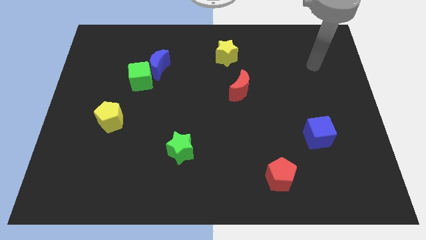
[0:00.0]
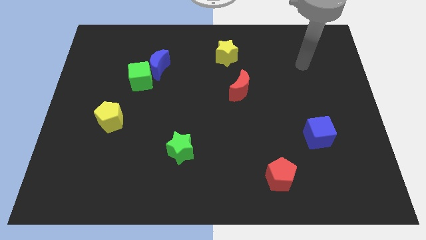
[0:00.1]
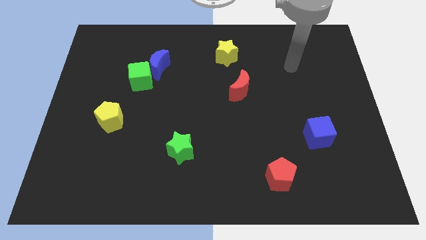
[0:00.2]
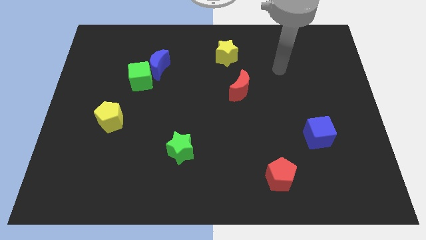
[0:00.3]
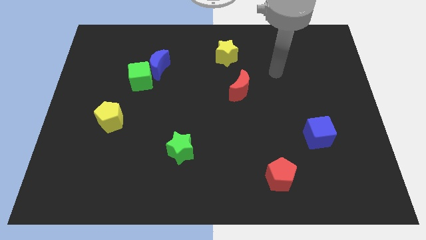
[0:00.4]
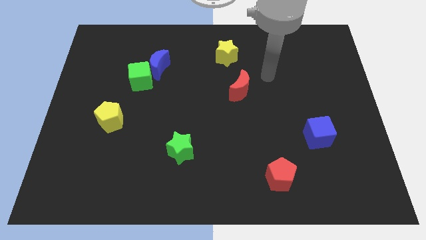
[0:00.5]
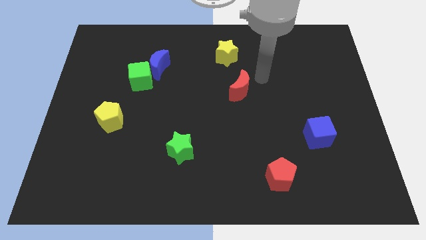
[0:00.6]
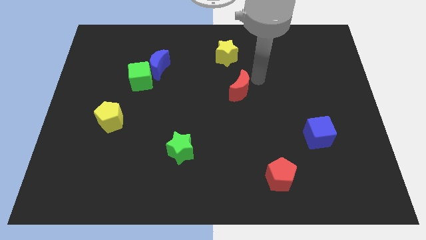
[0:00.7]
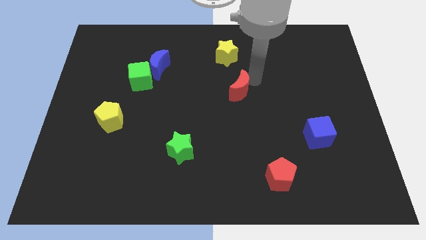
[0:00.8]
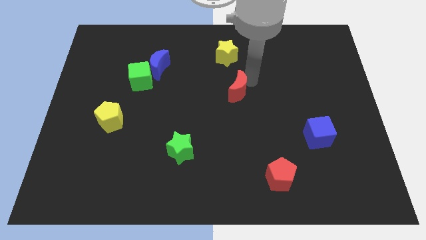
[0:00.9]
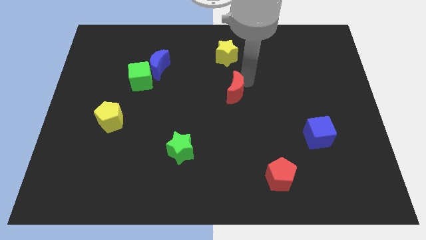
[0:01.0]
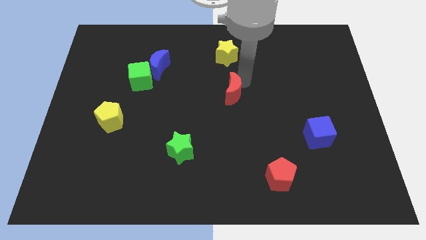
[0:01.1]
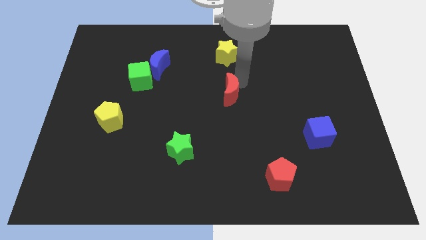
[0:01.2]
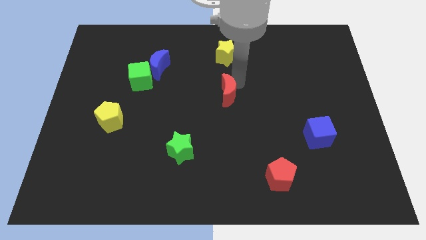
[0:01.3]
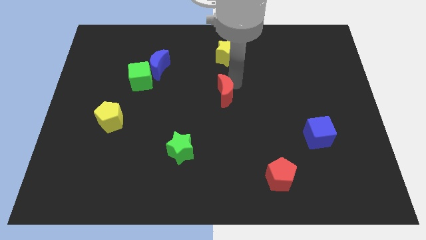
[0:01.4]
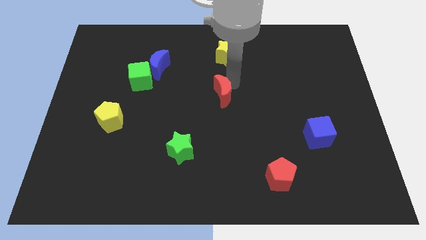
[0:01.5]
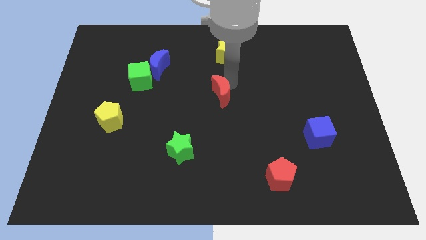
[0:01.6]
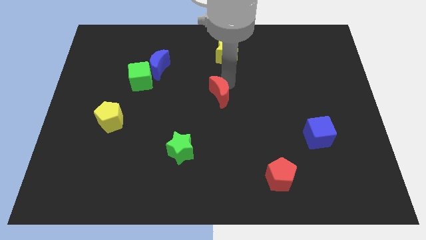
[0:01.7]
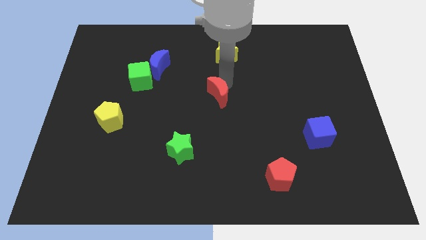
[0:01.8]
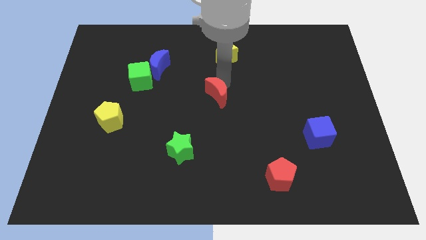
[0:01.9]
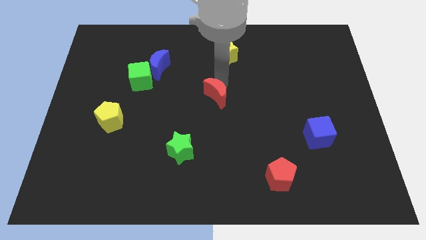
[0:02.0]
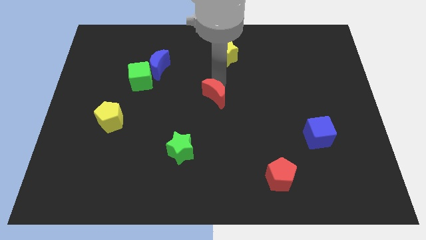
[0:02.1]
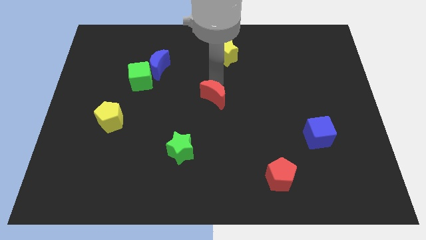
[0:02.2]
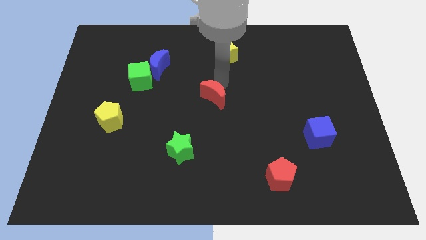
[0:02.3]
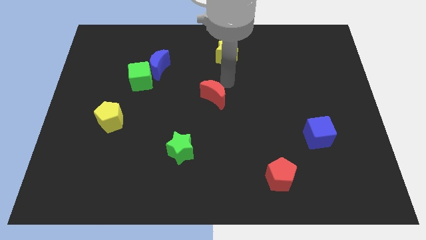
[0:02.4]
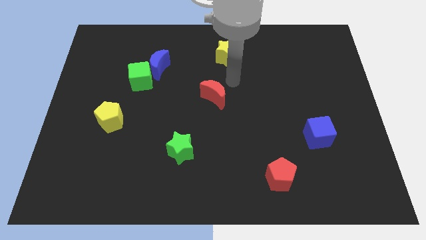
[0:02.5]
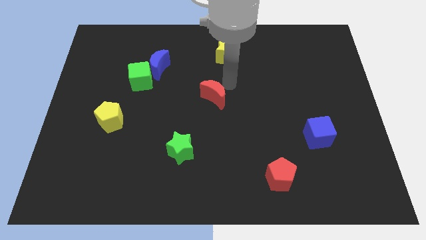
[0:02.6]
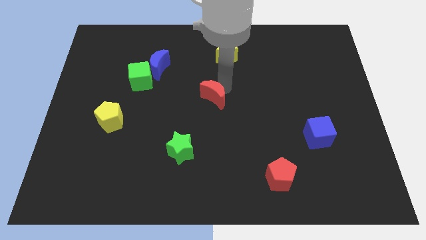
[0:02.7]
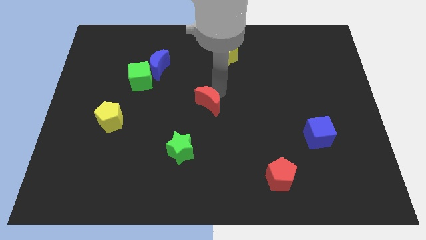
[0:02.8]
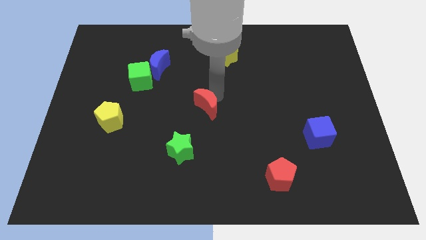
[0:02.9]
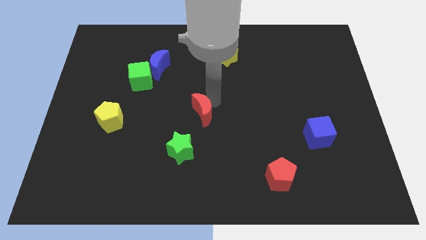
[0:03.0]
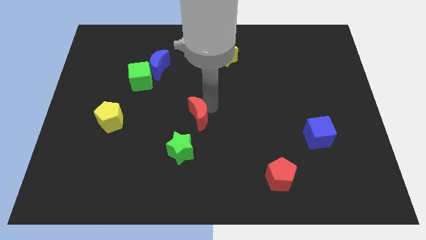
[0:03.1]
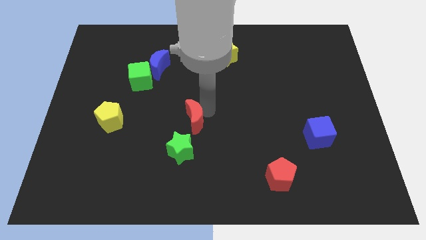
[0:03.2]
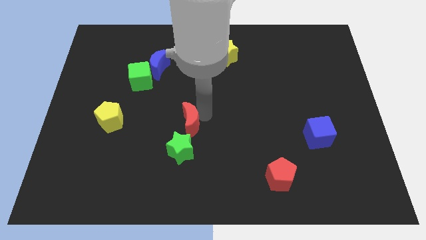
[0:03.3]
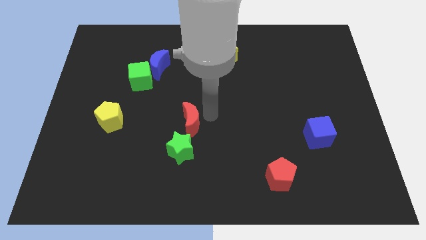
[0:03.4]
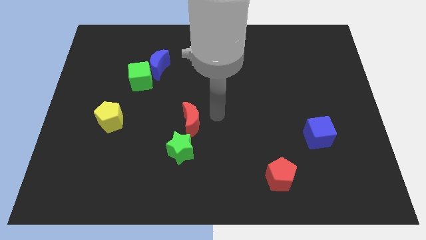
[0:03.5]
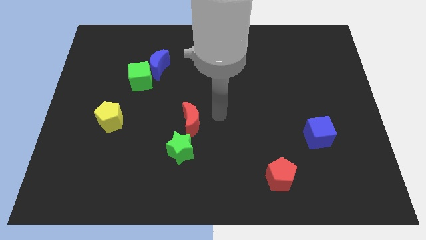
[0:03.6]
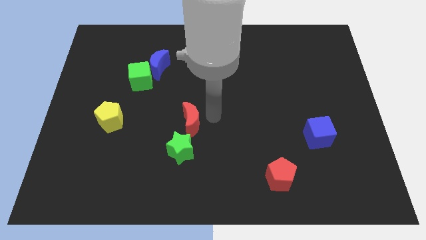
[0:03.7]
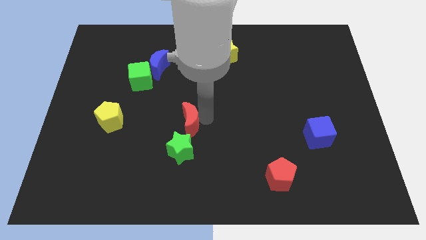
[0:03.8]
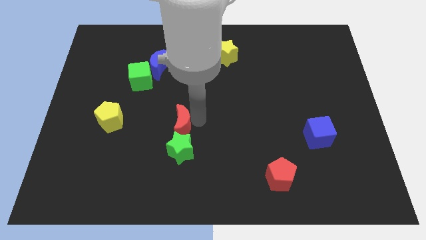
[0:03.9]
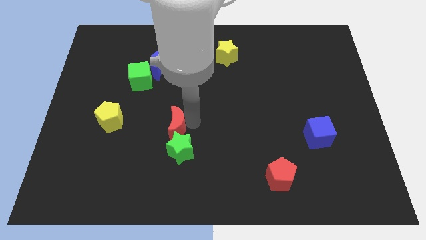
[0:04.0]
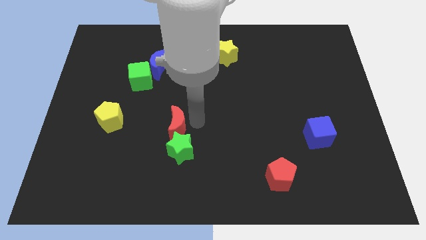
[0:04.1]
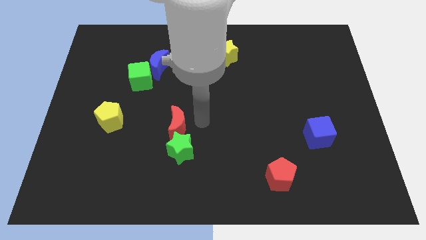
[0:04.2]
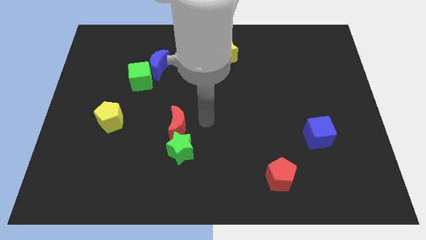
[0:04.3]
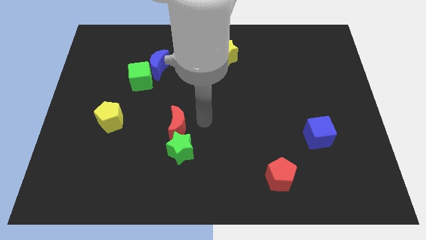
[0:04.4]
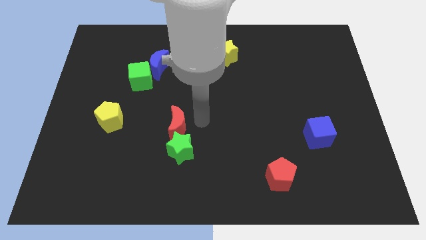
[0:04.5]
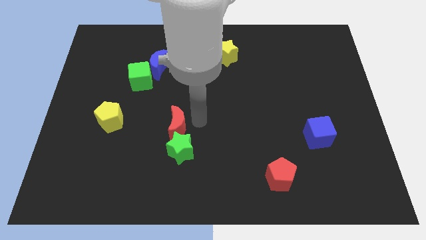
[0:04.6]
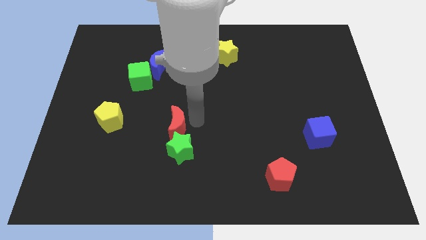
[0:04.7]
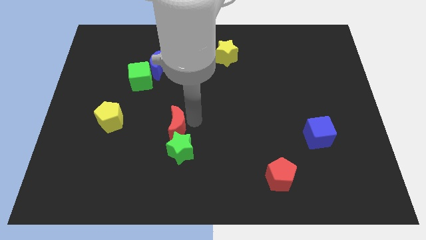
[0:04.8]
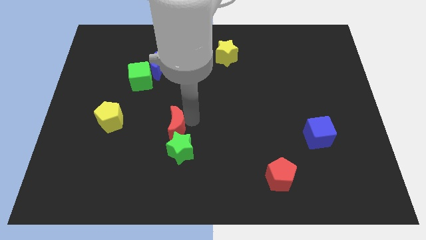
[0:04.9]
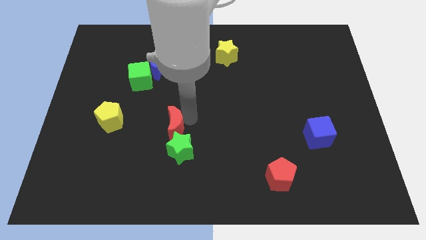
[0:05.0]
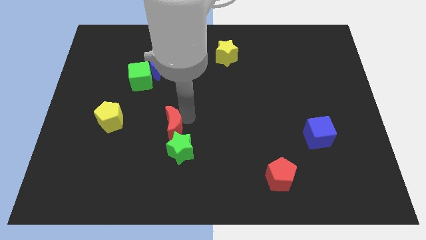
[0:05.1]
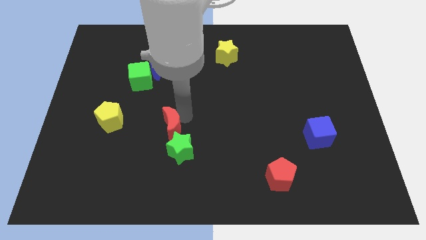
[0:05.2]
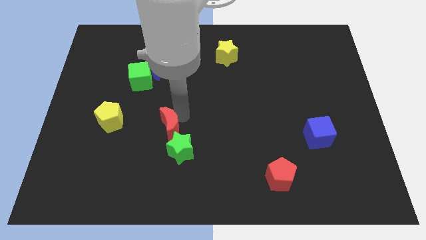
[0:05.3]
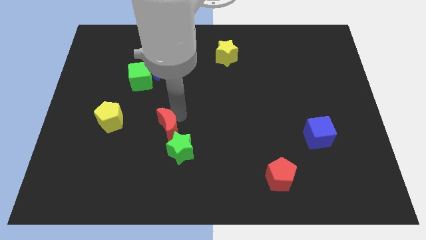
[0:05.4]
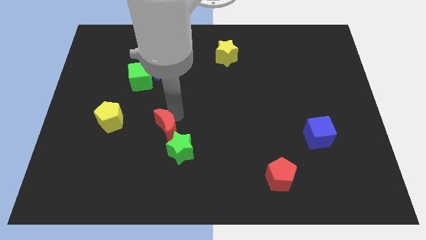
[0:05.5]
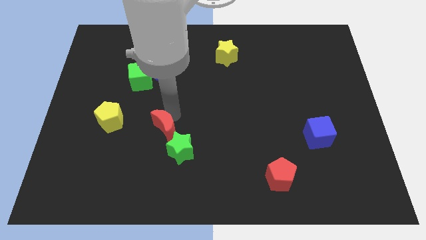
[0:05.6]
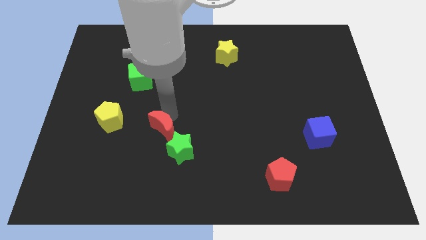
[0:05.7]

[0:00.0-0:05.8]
move the red moon diagonally down and left

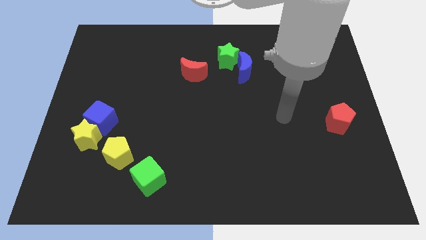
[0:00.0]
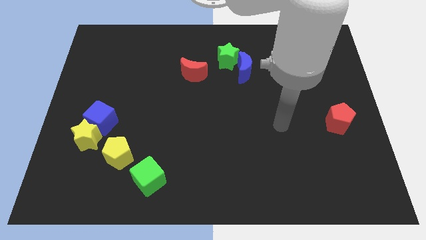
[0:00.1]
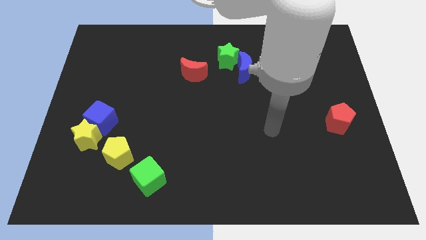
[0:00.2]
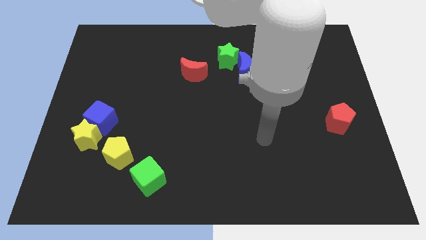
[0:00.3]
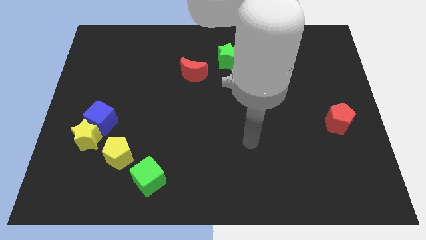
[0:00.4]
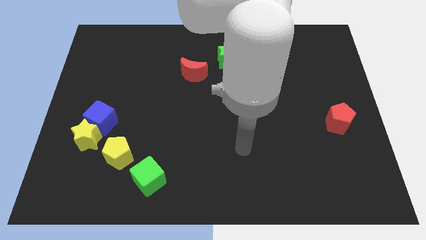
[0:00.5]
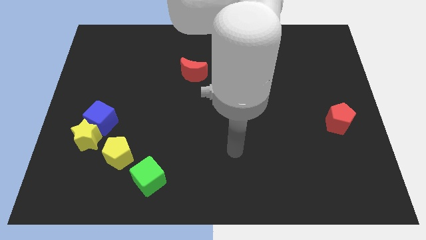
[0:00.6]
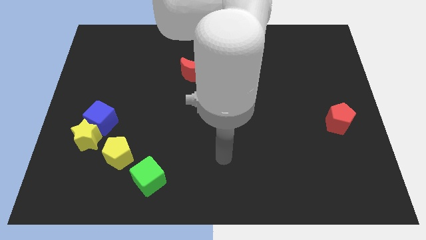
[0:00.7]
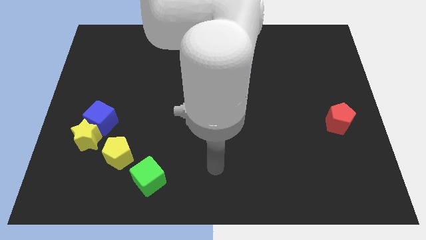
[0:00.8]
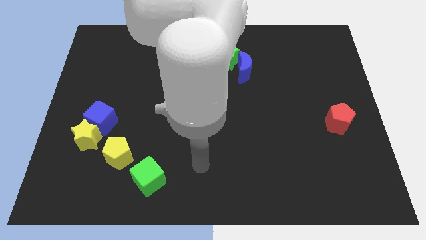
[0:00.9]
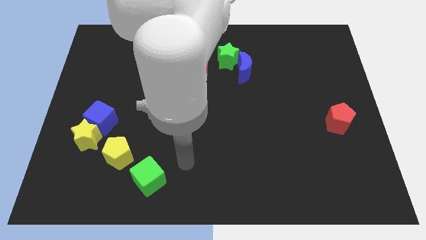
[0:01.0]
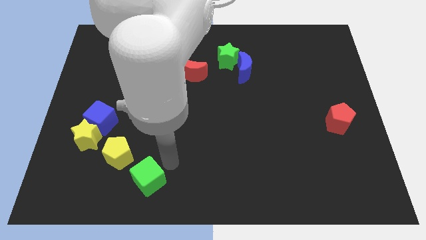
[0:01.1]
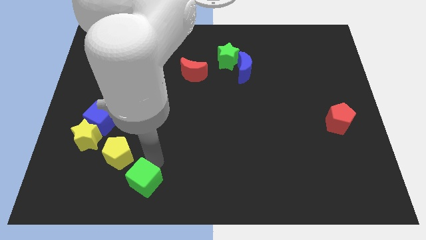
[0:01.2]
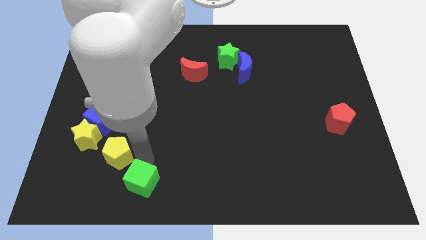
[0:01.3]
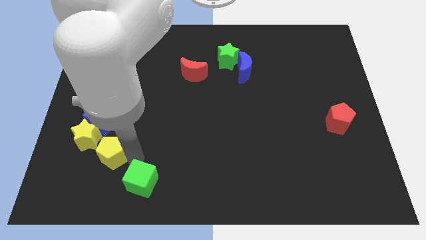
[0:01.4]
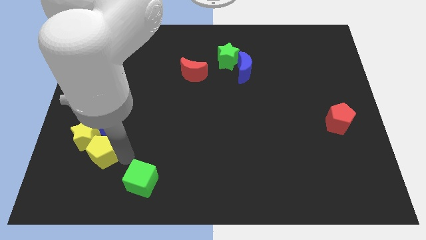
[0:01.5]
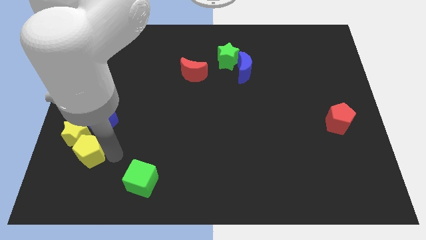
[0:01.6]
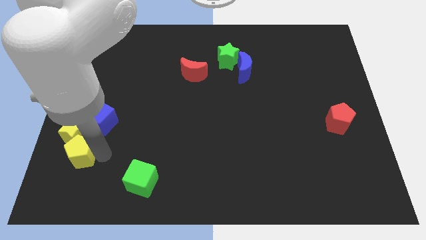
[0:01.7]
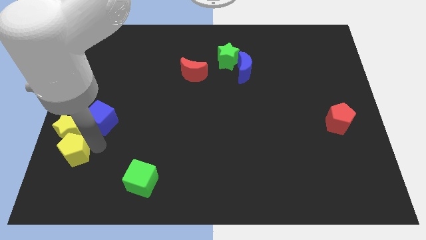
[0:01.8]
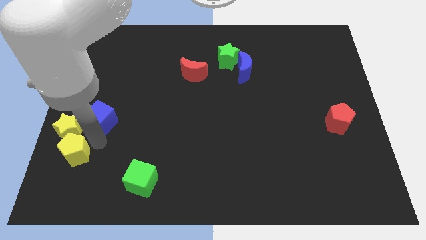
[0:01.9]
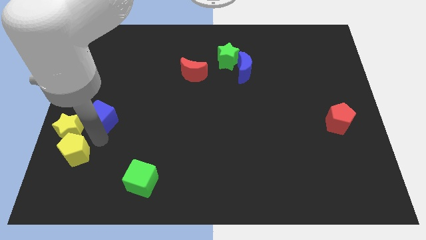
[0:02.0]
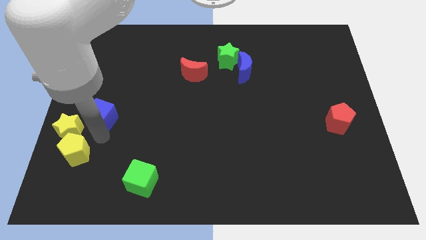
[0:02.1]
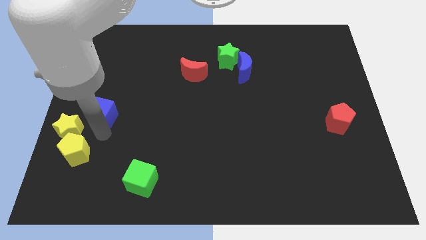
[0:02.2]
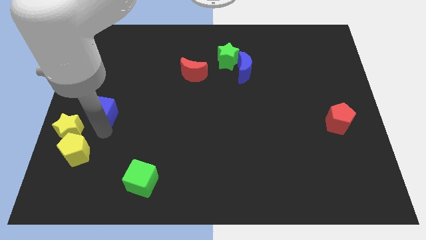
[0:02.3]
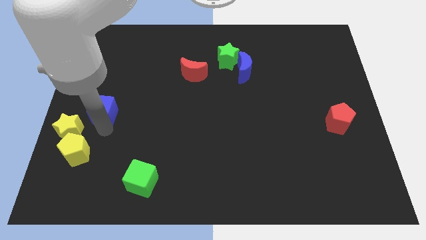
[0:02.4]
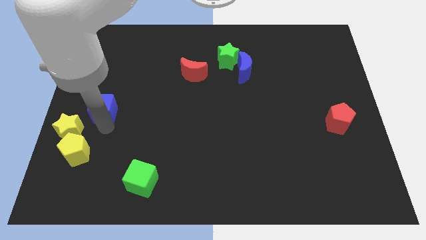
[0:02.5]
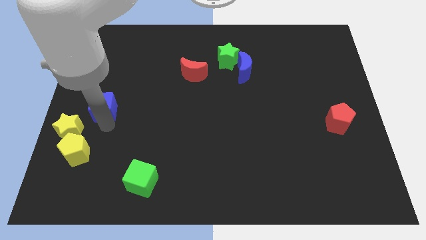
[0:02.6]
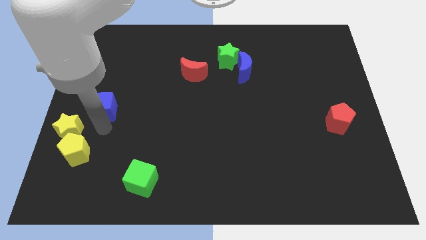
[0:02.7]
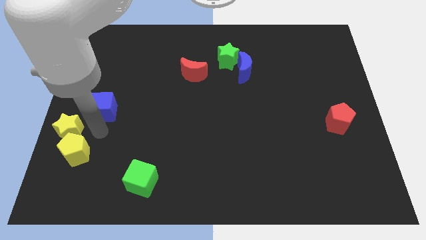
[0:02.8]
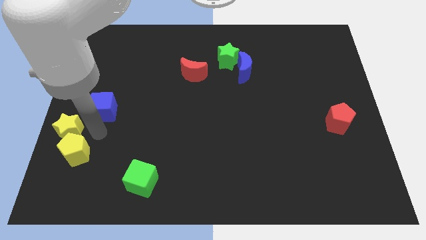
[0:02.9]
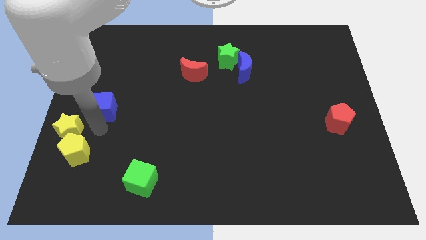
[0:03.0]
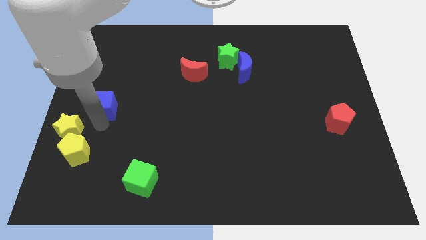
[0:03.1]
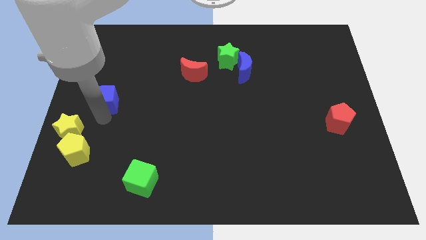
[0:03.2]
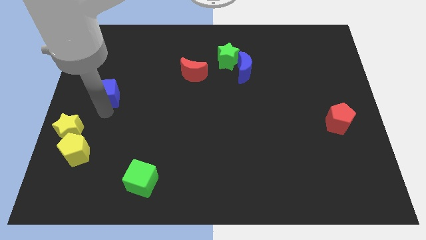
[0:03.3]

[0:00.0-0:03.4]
slide the blue cube up a bit
